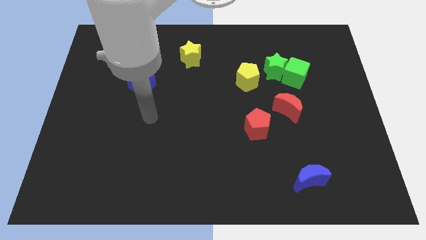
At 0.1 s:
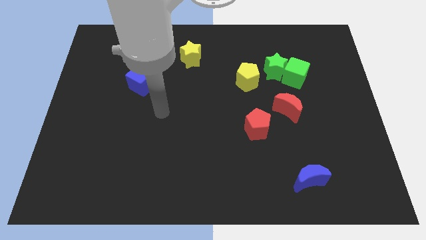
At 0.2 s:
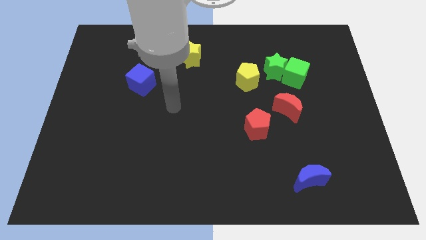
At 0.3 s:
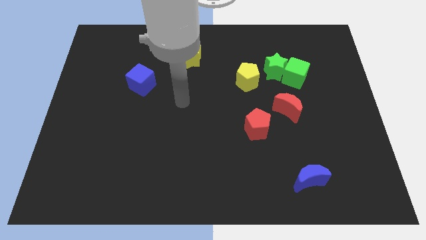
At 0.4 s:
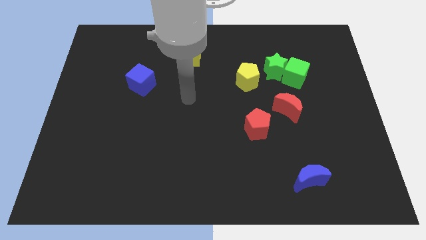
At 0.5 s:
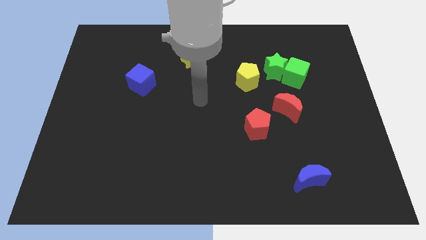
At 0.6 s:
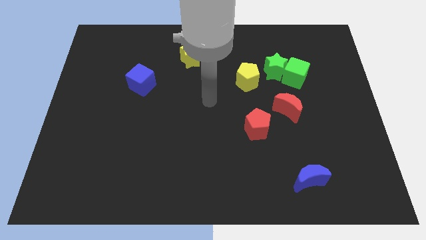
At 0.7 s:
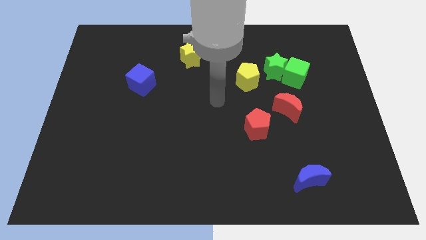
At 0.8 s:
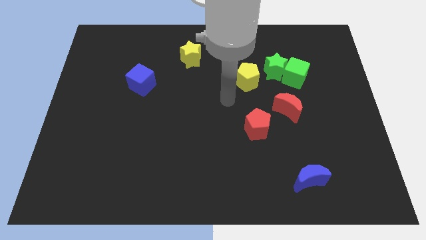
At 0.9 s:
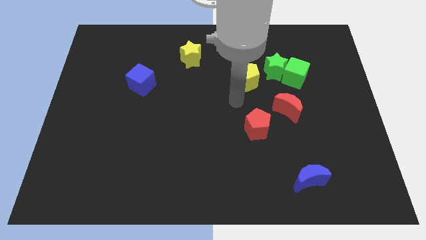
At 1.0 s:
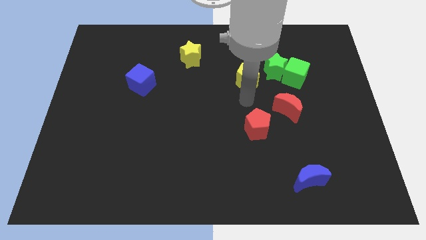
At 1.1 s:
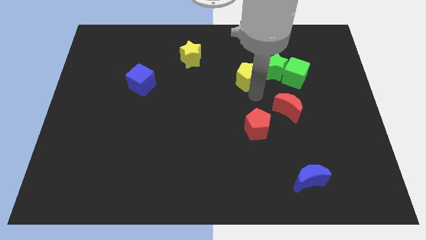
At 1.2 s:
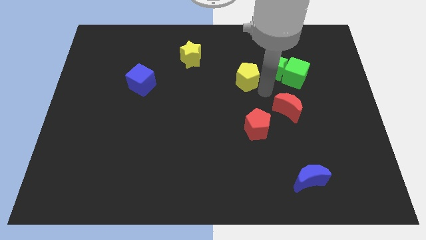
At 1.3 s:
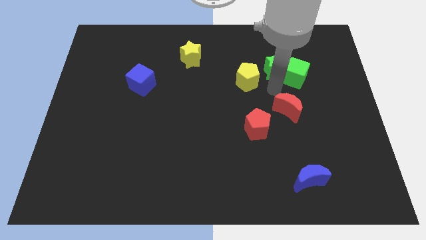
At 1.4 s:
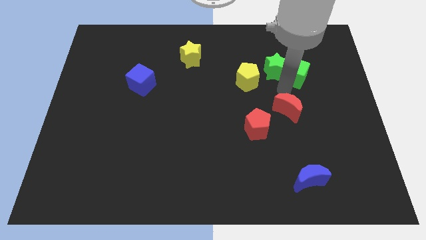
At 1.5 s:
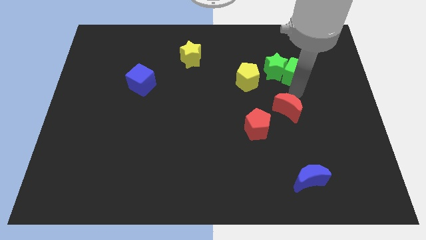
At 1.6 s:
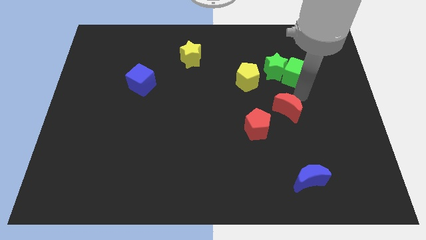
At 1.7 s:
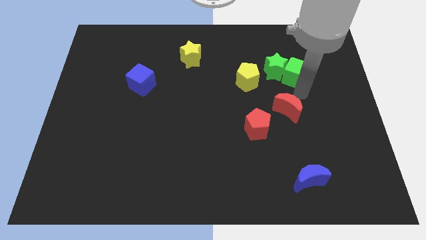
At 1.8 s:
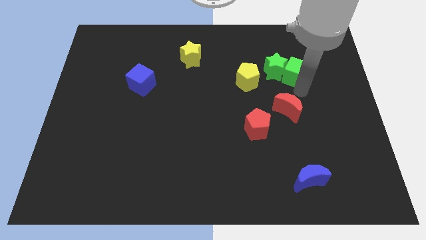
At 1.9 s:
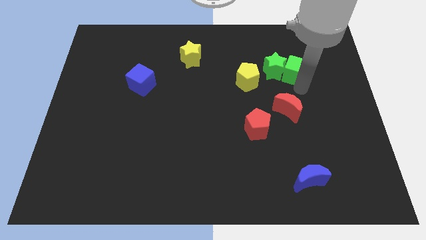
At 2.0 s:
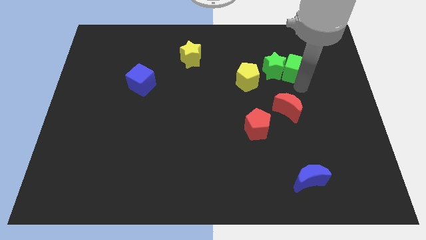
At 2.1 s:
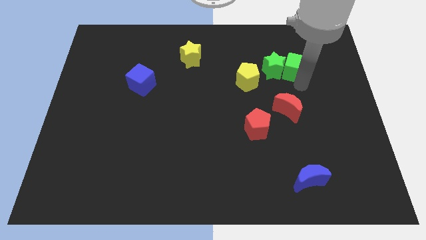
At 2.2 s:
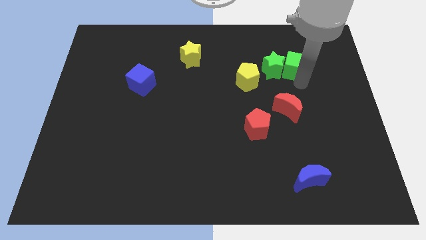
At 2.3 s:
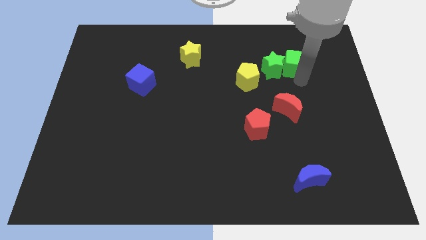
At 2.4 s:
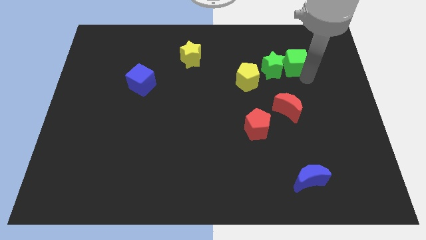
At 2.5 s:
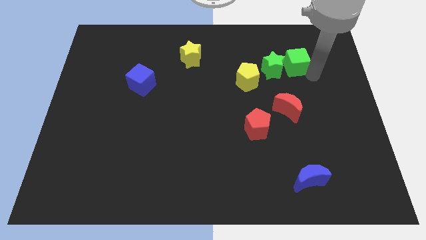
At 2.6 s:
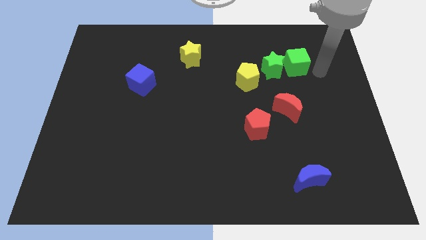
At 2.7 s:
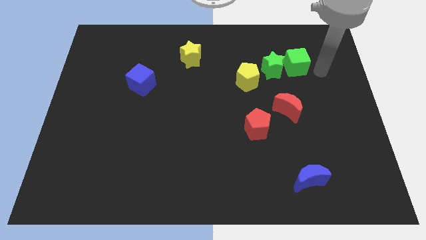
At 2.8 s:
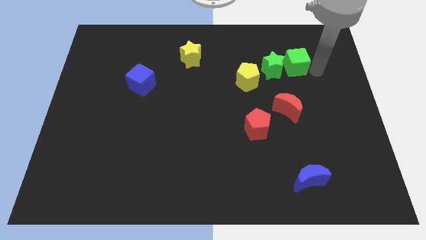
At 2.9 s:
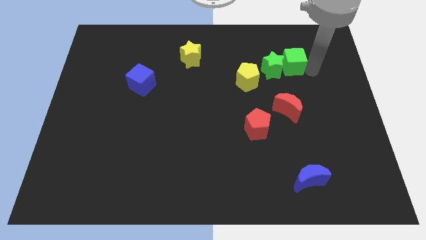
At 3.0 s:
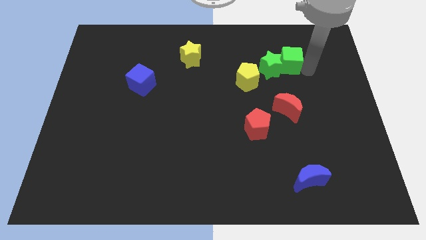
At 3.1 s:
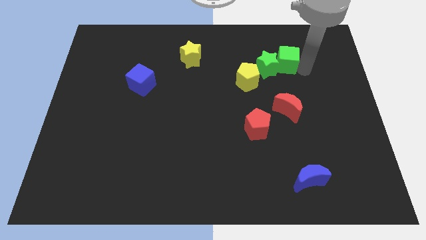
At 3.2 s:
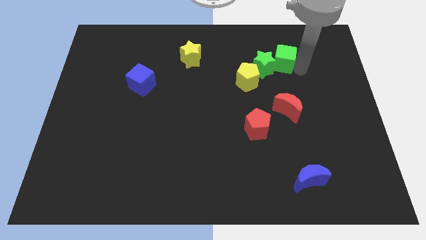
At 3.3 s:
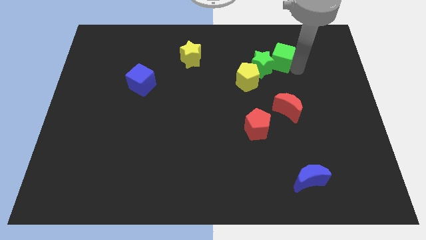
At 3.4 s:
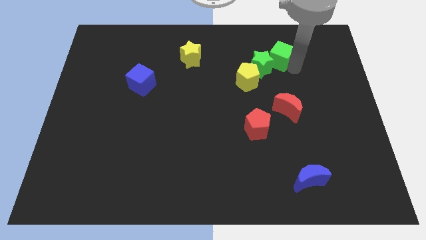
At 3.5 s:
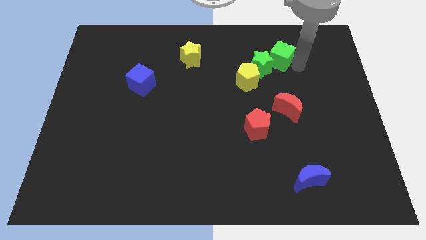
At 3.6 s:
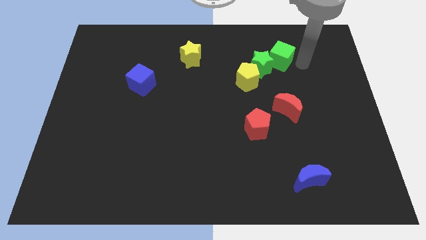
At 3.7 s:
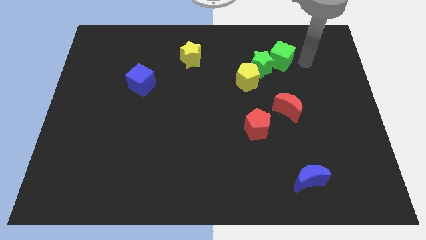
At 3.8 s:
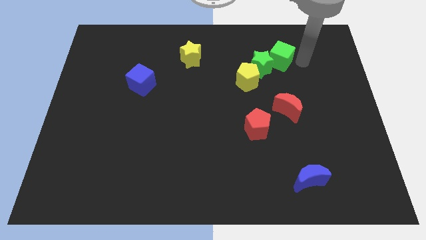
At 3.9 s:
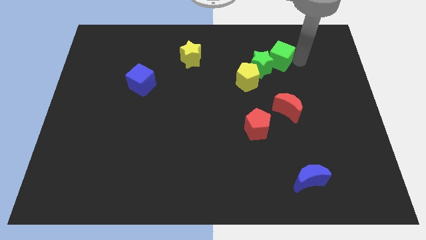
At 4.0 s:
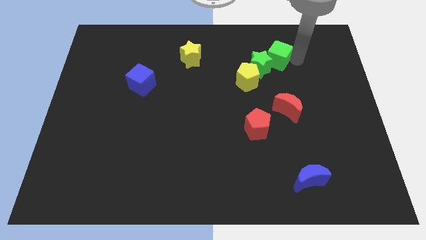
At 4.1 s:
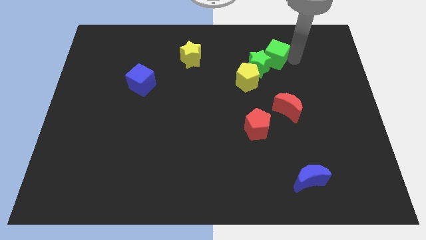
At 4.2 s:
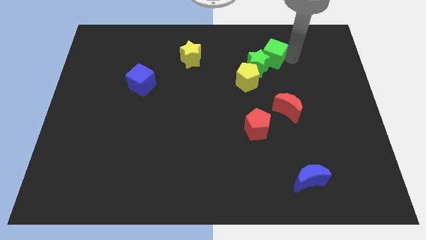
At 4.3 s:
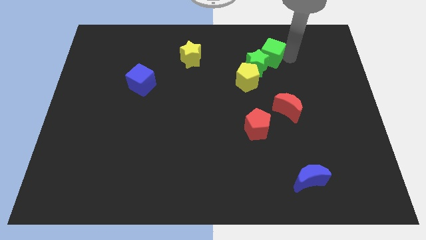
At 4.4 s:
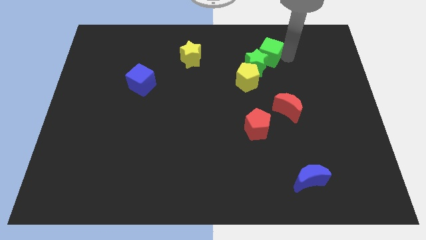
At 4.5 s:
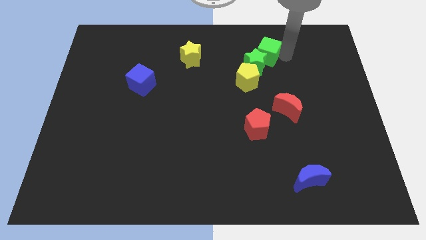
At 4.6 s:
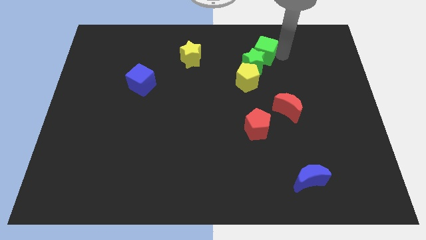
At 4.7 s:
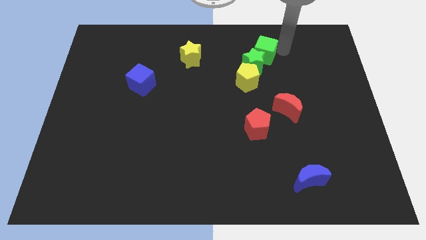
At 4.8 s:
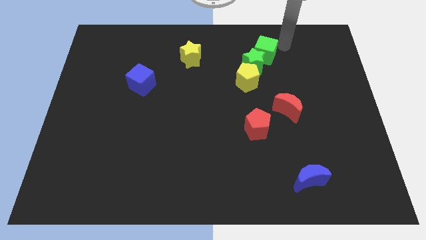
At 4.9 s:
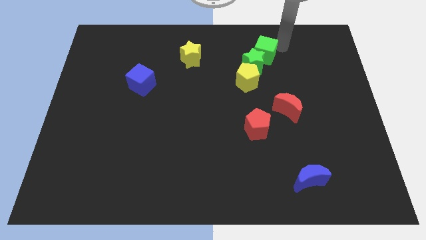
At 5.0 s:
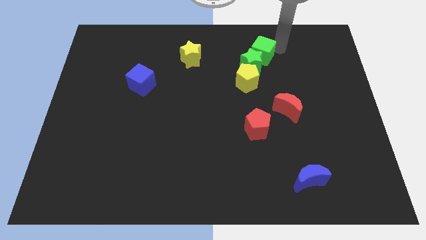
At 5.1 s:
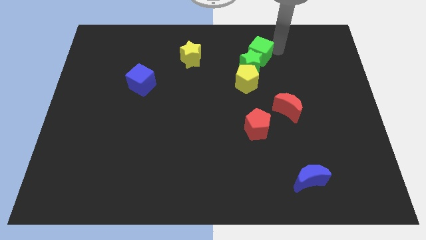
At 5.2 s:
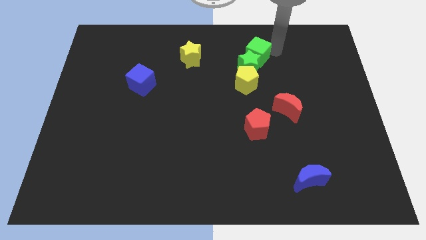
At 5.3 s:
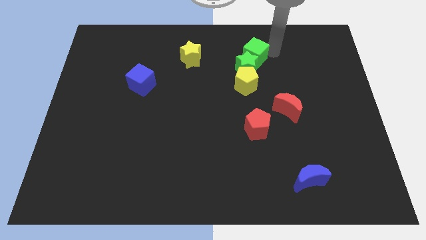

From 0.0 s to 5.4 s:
slightly move the green cube left

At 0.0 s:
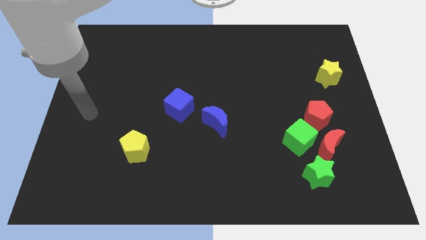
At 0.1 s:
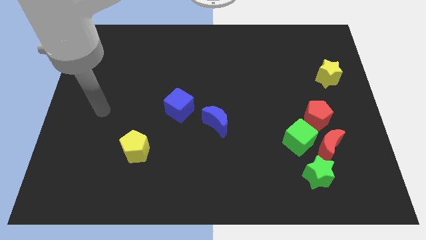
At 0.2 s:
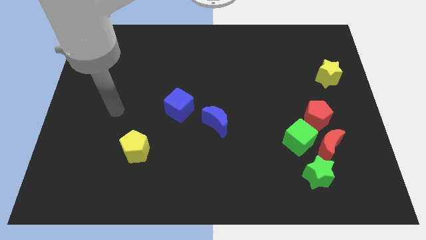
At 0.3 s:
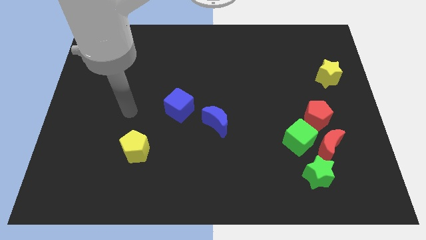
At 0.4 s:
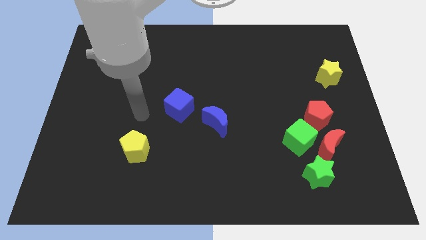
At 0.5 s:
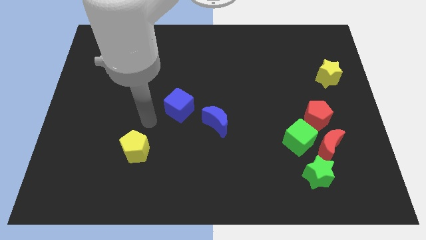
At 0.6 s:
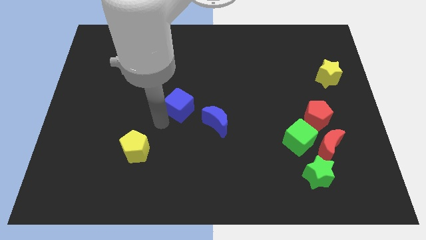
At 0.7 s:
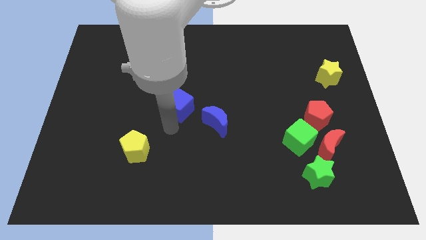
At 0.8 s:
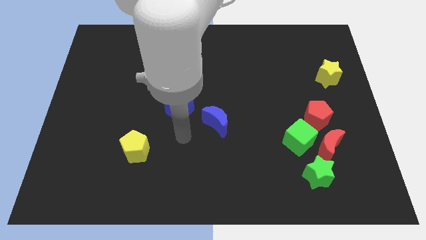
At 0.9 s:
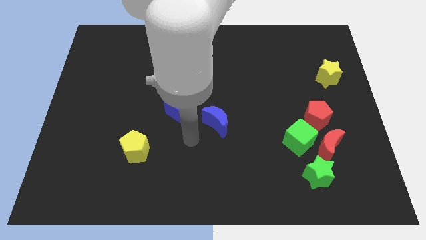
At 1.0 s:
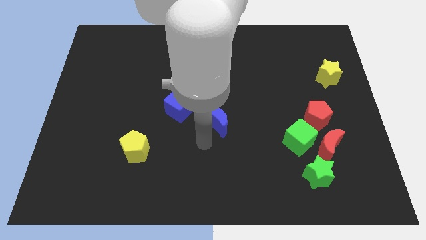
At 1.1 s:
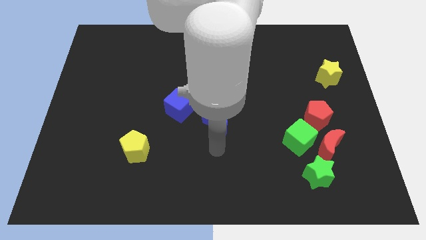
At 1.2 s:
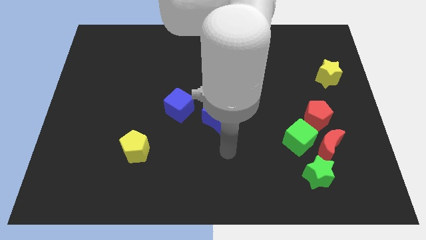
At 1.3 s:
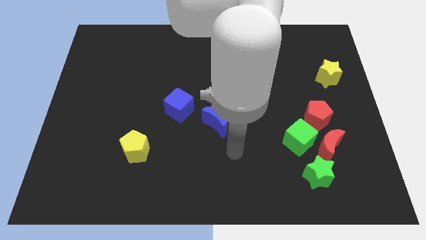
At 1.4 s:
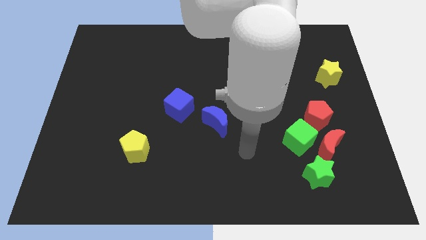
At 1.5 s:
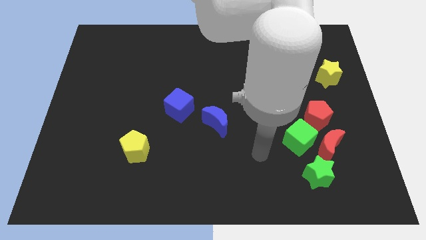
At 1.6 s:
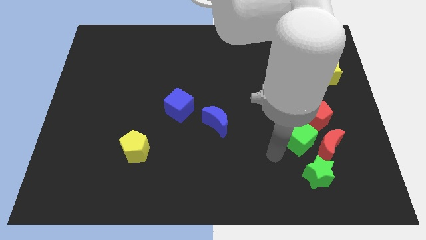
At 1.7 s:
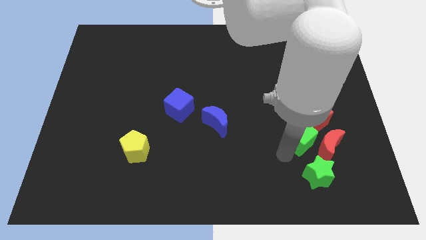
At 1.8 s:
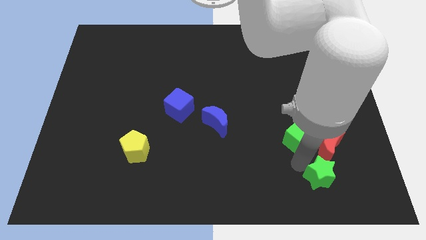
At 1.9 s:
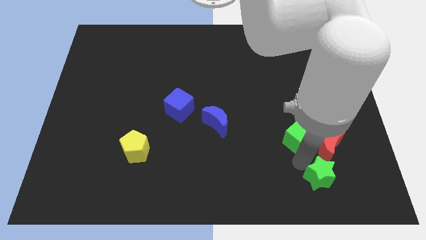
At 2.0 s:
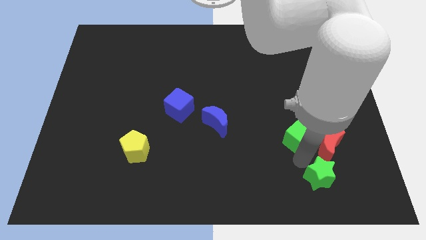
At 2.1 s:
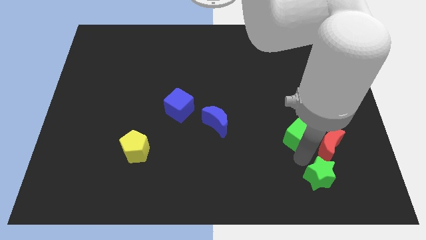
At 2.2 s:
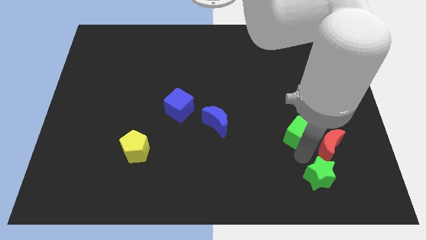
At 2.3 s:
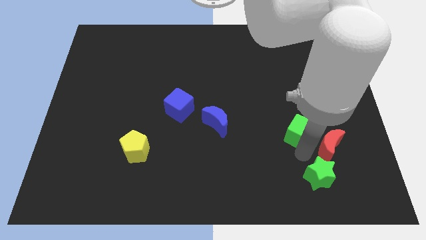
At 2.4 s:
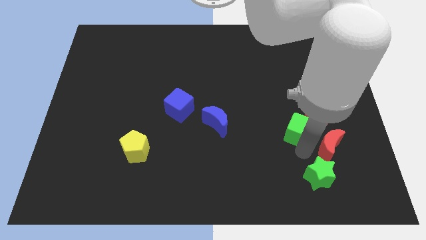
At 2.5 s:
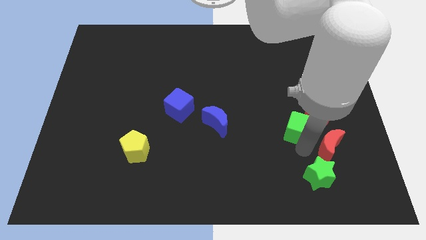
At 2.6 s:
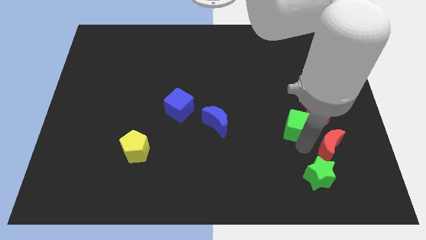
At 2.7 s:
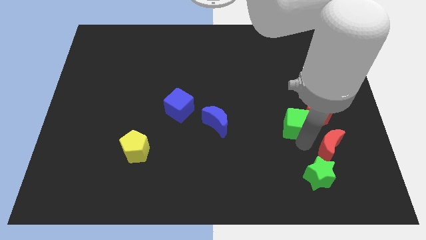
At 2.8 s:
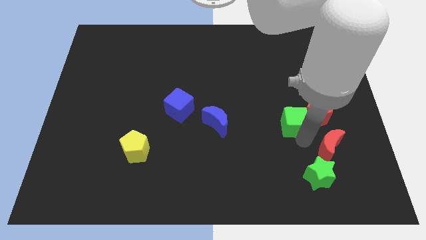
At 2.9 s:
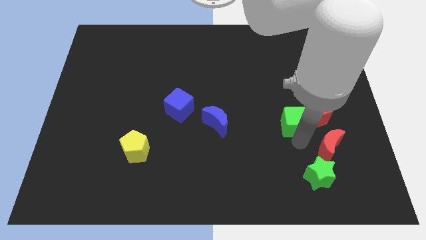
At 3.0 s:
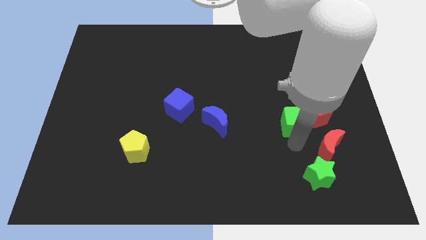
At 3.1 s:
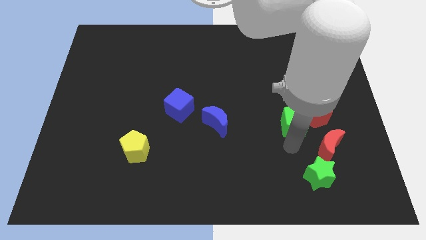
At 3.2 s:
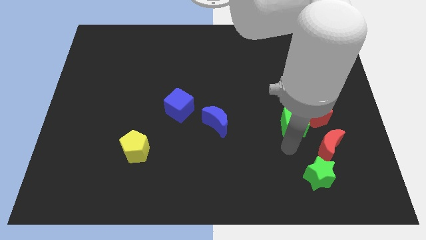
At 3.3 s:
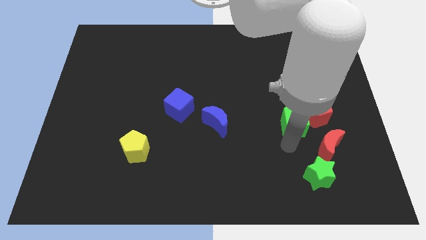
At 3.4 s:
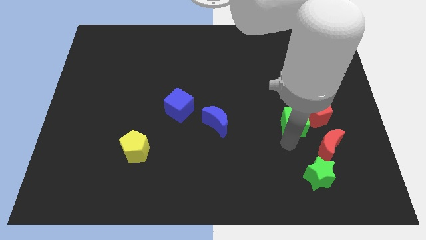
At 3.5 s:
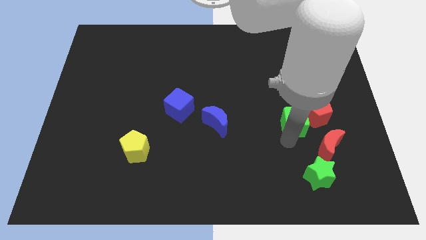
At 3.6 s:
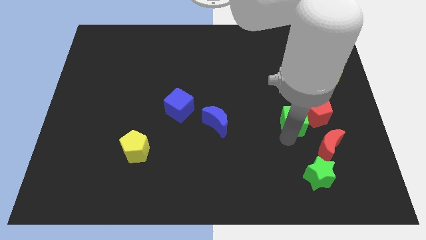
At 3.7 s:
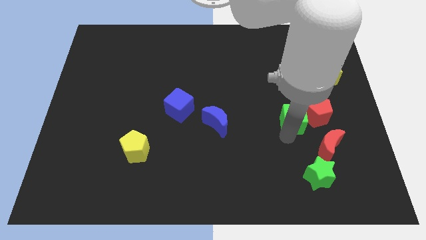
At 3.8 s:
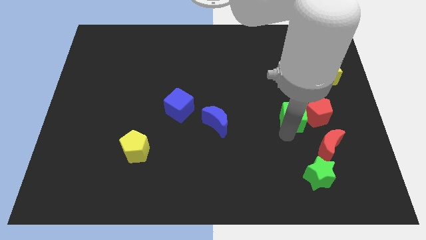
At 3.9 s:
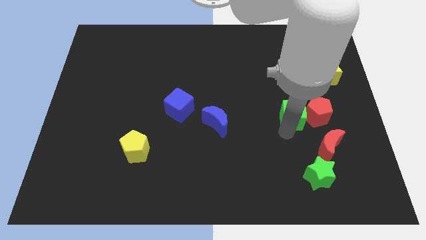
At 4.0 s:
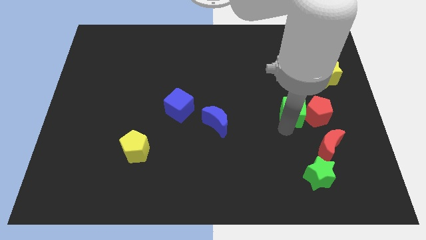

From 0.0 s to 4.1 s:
slide the green cube somewhat up
